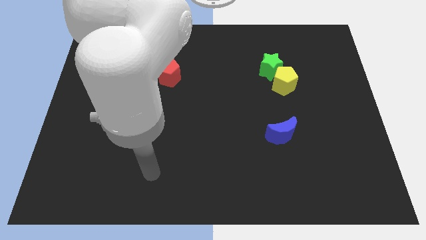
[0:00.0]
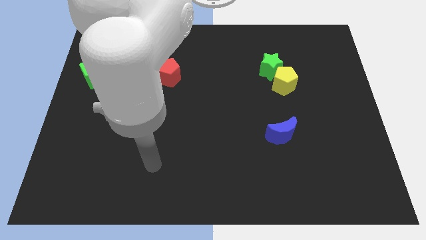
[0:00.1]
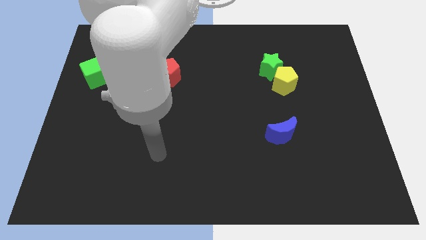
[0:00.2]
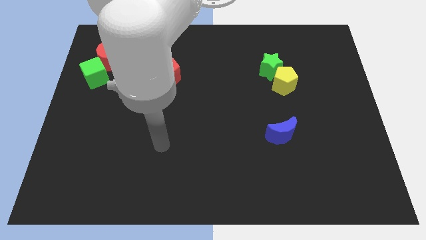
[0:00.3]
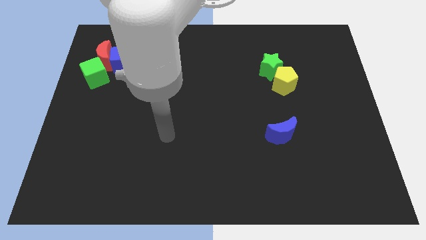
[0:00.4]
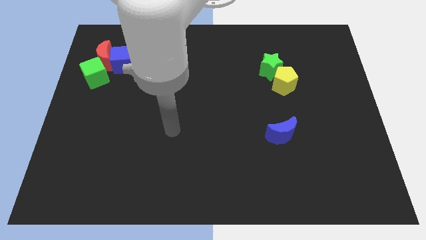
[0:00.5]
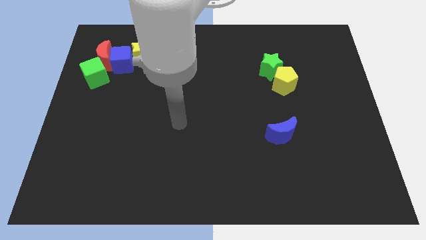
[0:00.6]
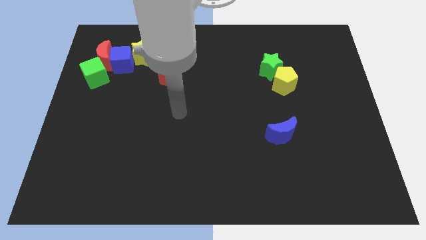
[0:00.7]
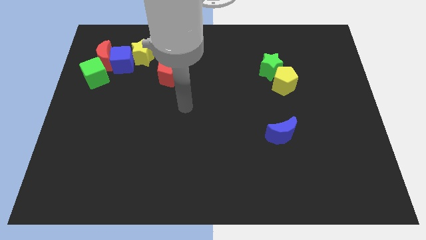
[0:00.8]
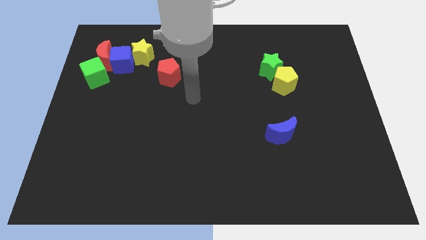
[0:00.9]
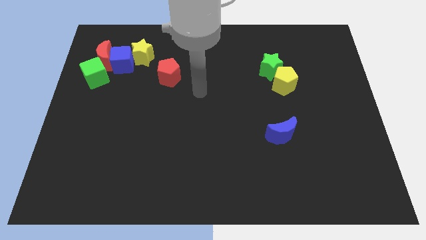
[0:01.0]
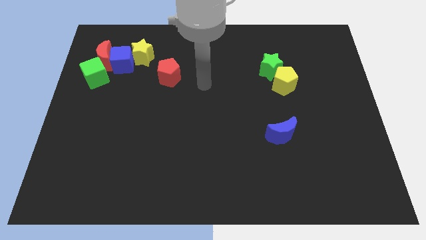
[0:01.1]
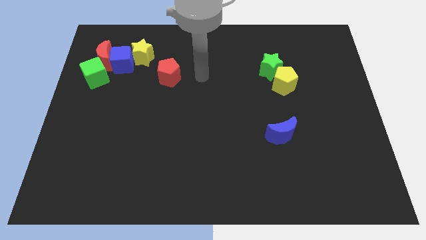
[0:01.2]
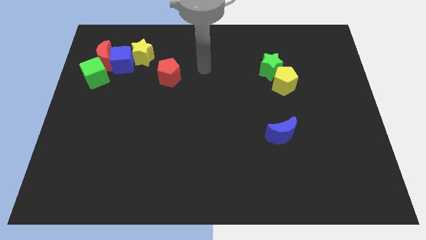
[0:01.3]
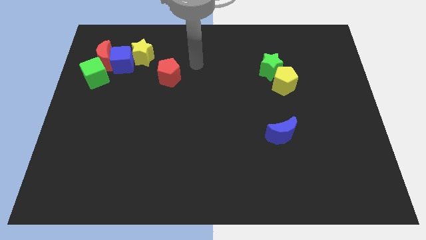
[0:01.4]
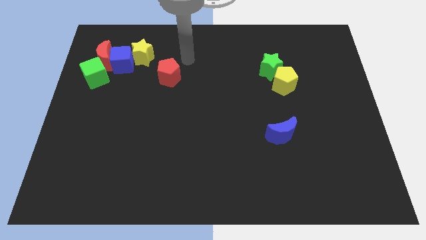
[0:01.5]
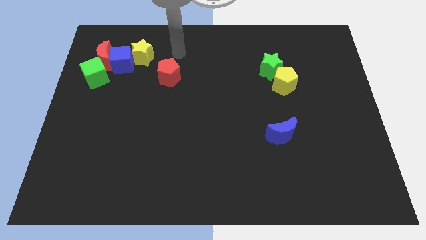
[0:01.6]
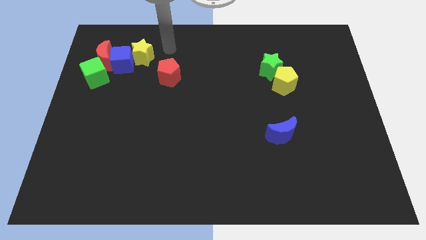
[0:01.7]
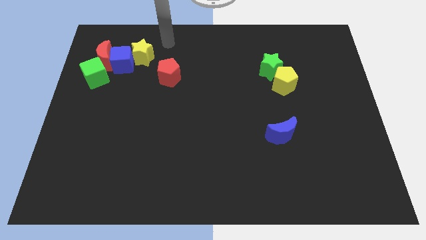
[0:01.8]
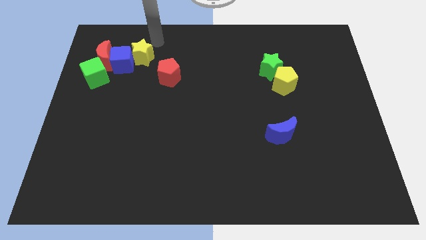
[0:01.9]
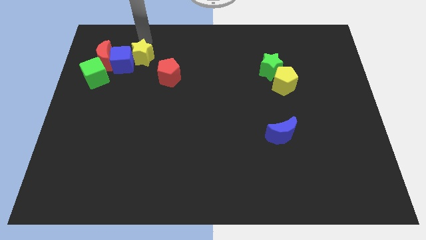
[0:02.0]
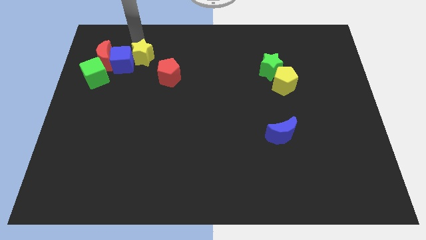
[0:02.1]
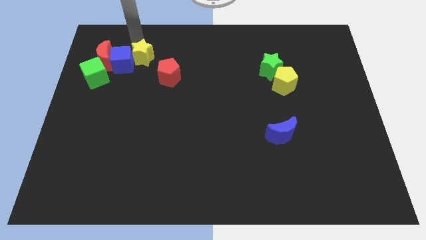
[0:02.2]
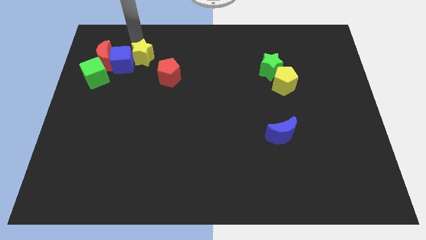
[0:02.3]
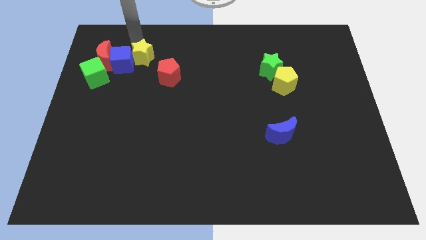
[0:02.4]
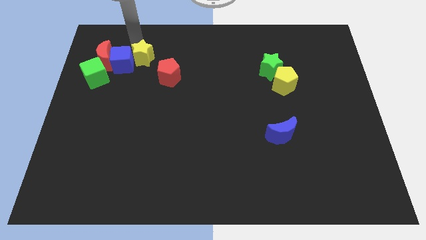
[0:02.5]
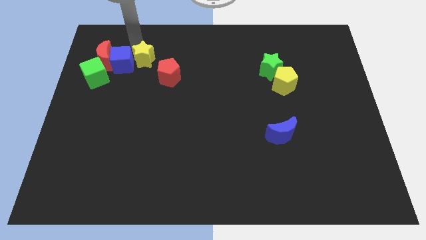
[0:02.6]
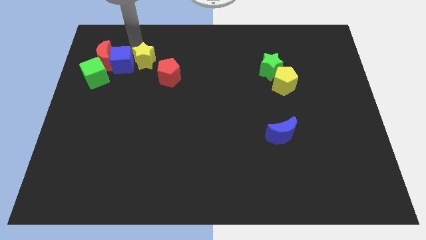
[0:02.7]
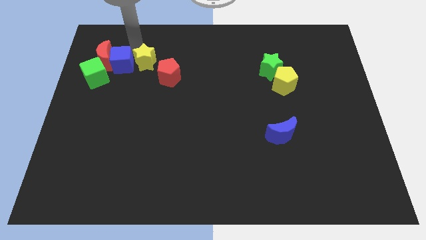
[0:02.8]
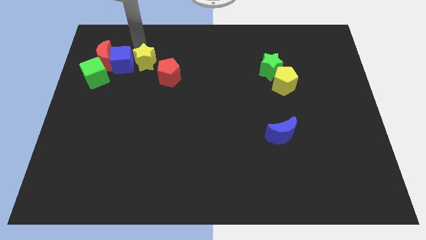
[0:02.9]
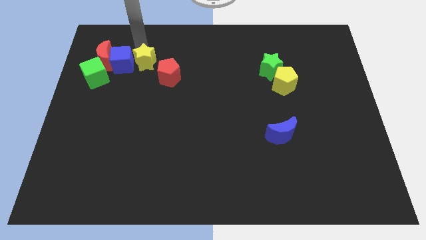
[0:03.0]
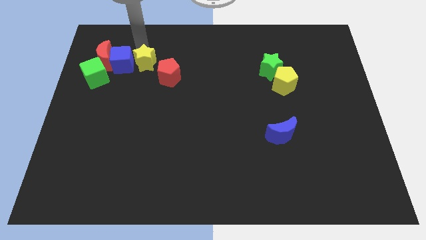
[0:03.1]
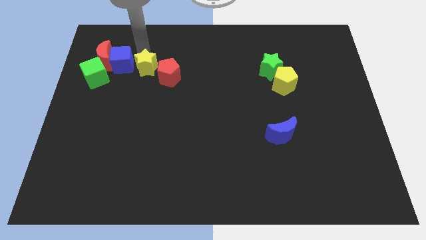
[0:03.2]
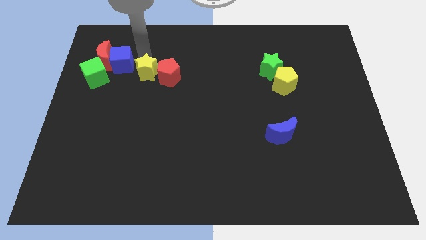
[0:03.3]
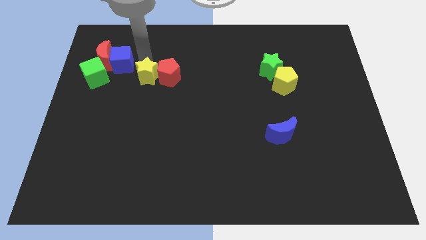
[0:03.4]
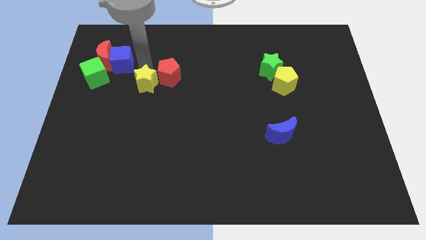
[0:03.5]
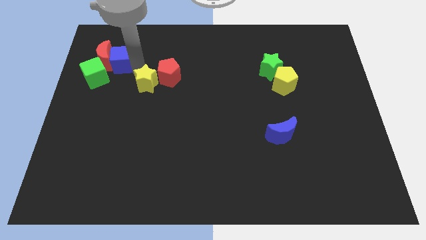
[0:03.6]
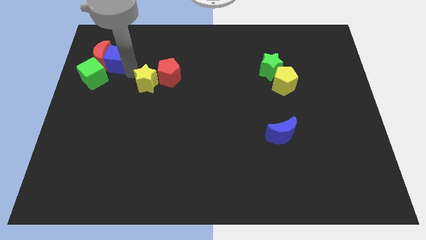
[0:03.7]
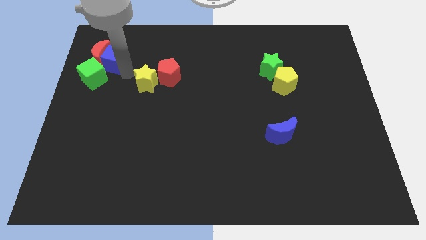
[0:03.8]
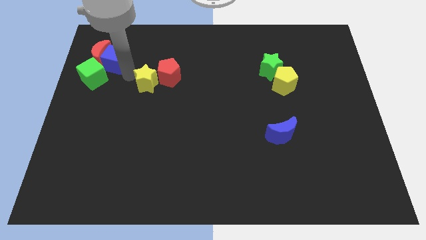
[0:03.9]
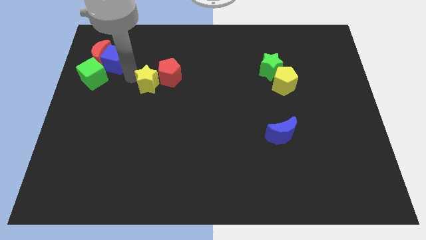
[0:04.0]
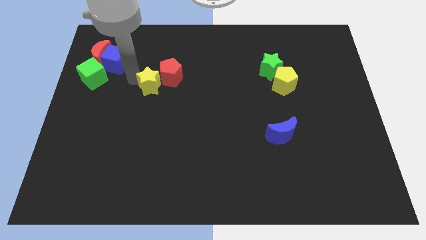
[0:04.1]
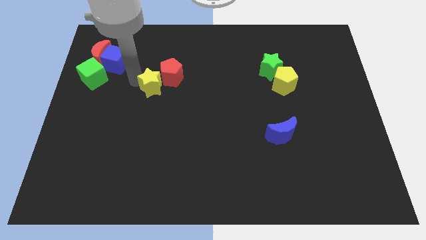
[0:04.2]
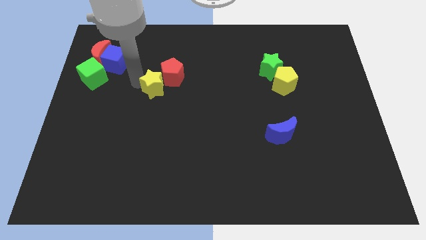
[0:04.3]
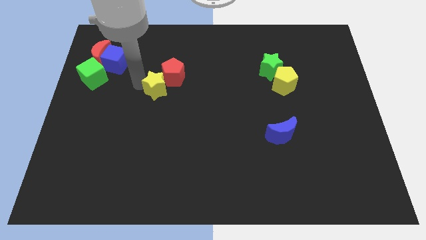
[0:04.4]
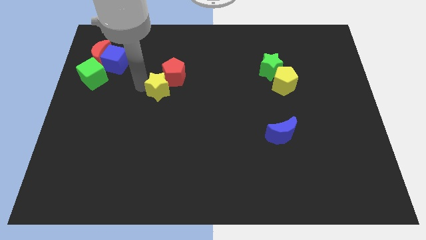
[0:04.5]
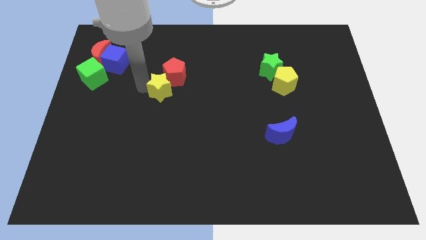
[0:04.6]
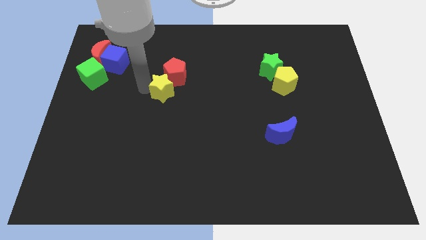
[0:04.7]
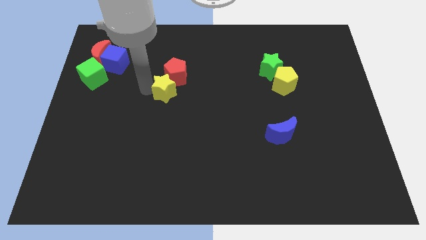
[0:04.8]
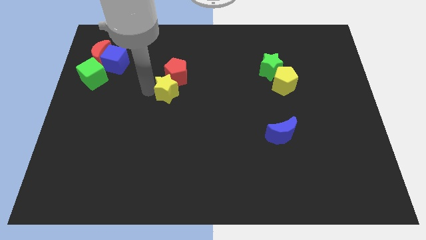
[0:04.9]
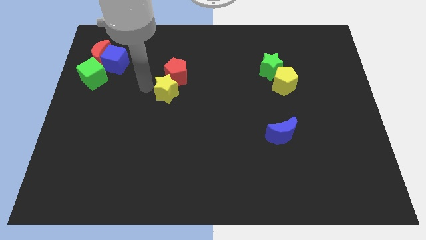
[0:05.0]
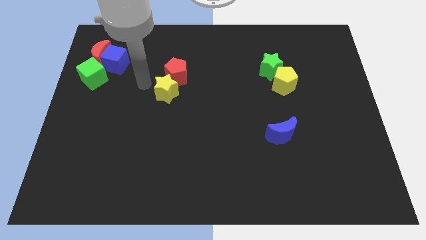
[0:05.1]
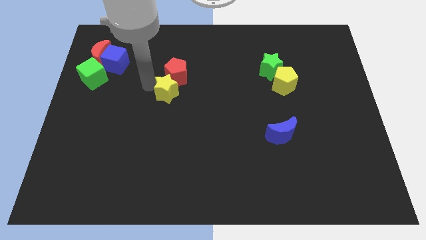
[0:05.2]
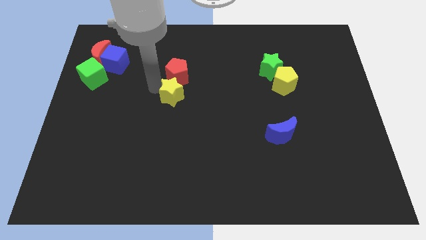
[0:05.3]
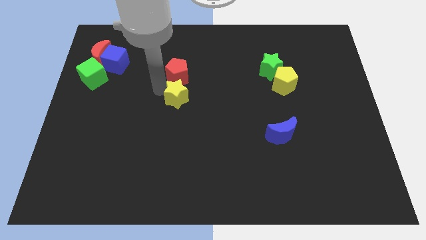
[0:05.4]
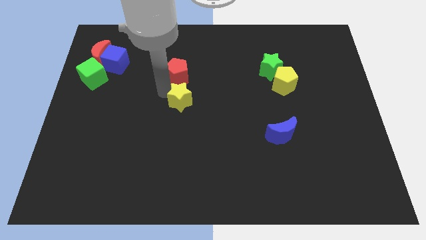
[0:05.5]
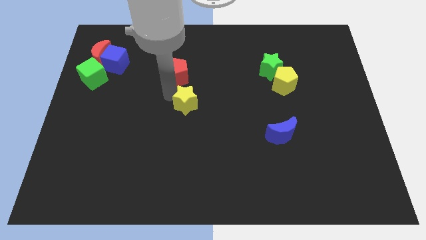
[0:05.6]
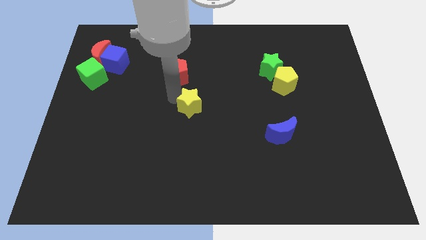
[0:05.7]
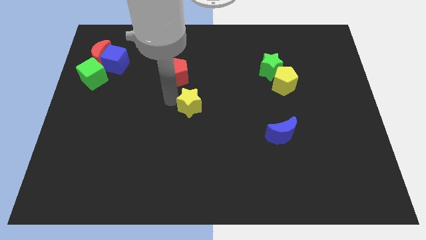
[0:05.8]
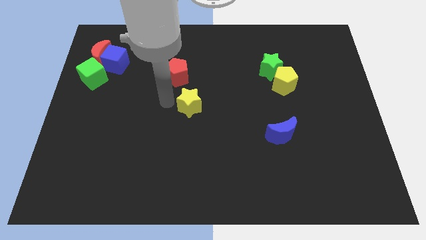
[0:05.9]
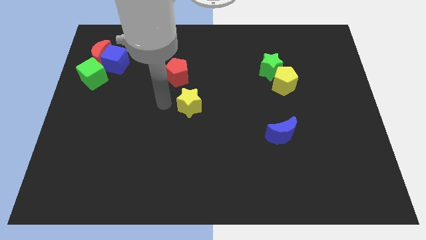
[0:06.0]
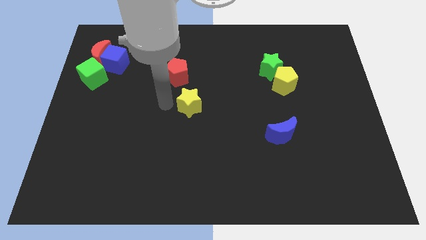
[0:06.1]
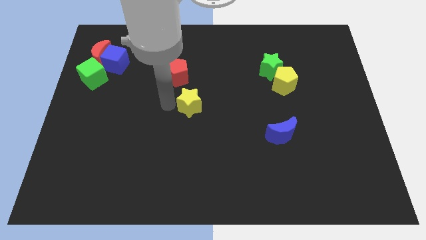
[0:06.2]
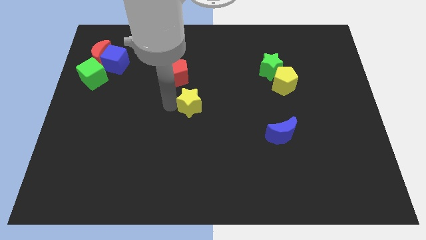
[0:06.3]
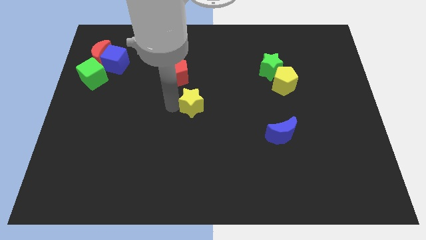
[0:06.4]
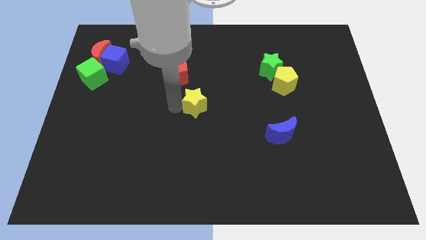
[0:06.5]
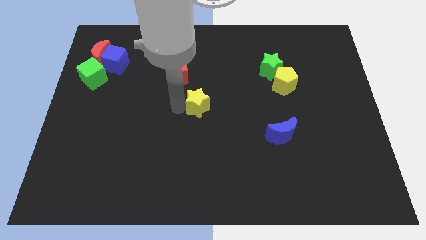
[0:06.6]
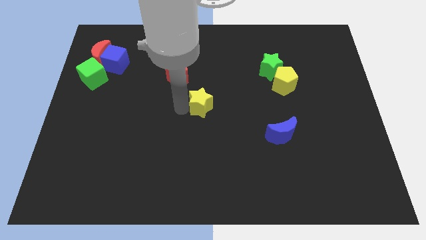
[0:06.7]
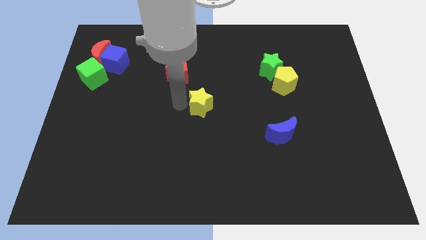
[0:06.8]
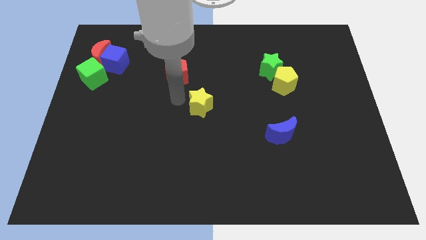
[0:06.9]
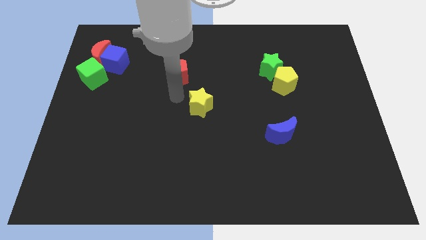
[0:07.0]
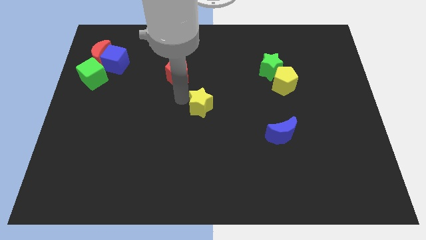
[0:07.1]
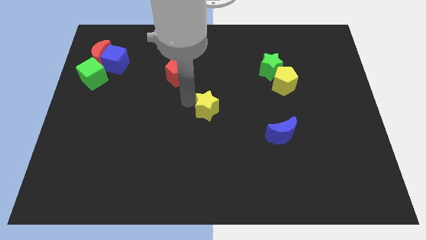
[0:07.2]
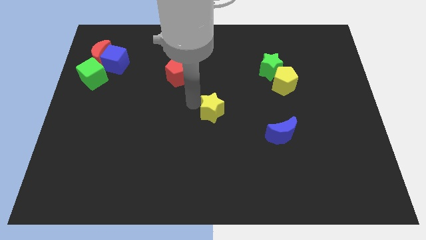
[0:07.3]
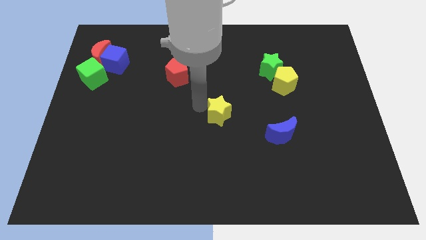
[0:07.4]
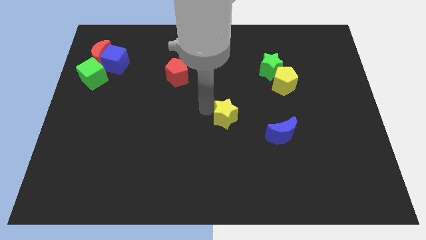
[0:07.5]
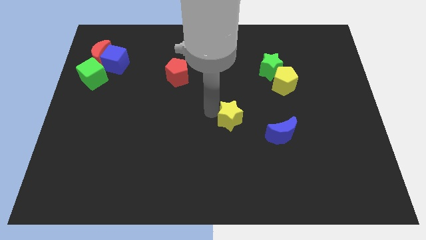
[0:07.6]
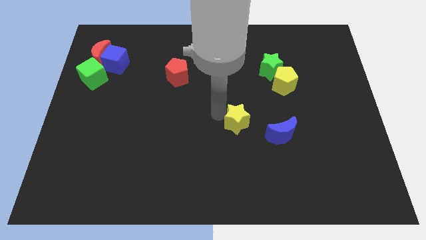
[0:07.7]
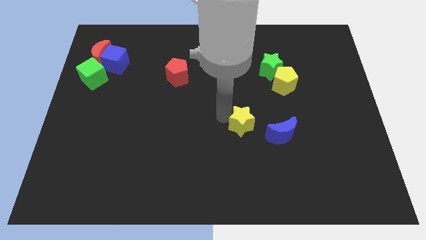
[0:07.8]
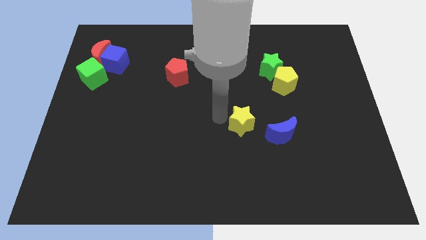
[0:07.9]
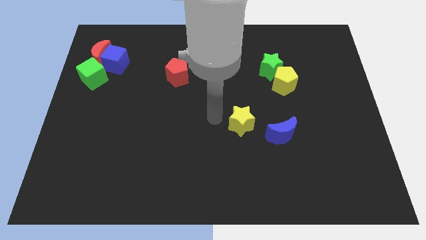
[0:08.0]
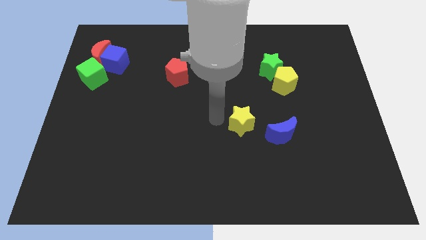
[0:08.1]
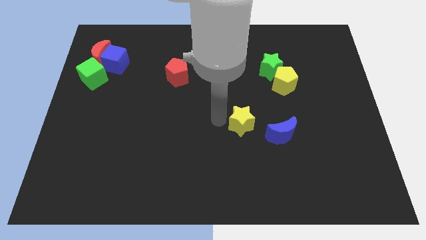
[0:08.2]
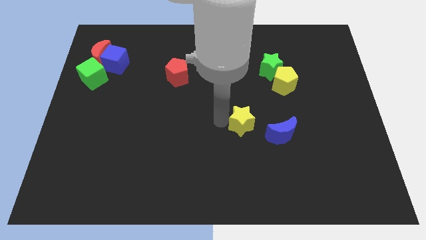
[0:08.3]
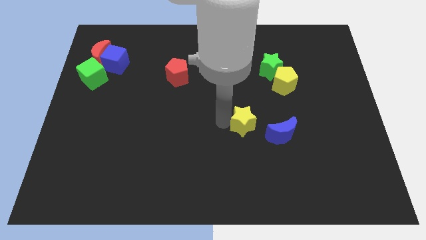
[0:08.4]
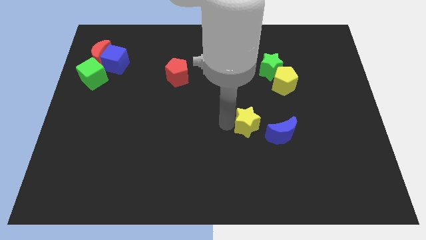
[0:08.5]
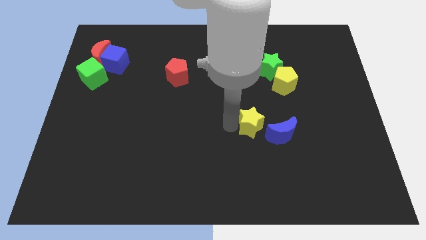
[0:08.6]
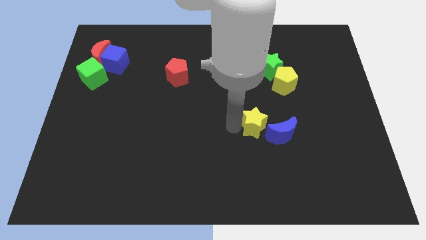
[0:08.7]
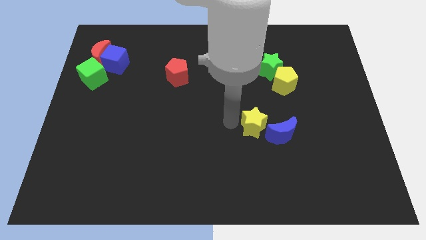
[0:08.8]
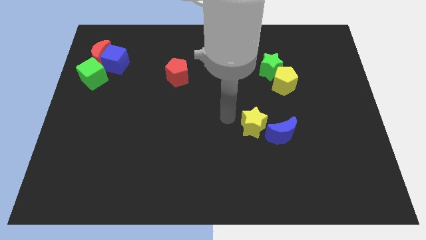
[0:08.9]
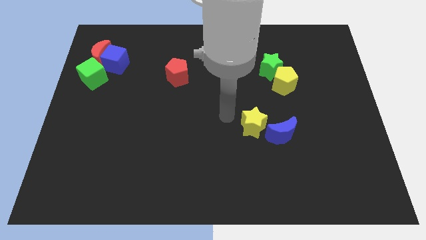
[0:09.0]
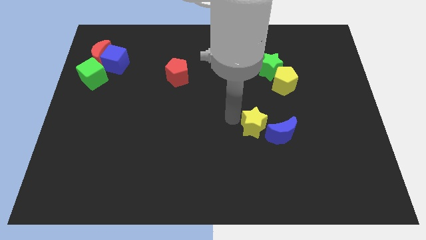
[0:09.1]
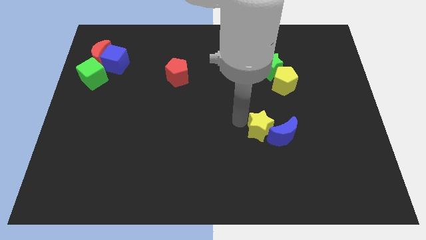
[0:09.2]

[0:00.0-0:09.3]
move the yellow star to the blue moon
